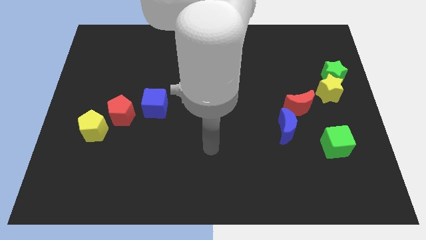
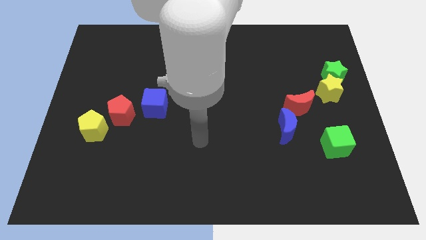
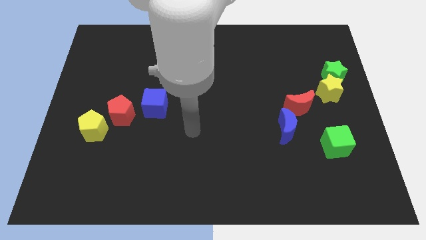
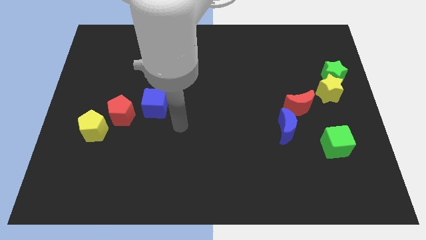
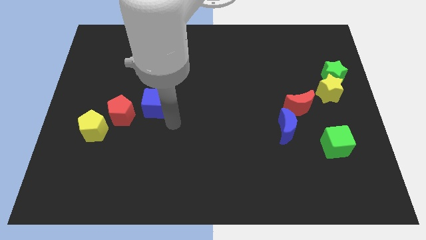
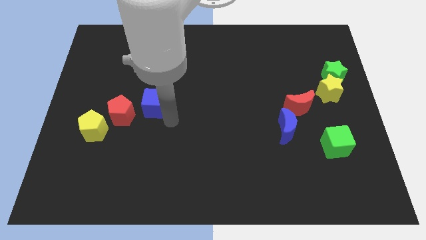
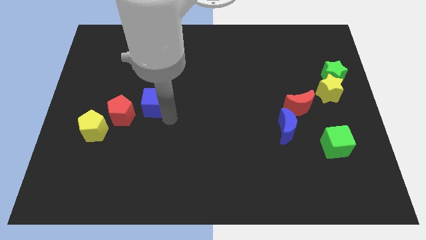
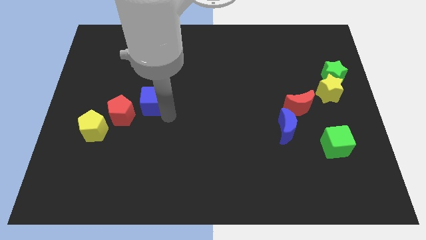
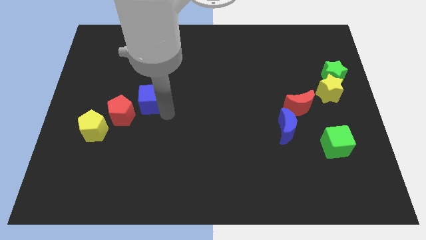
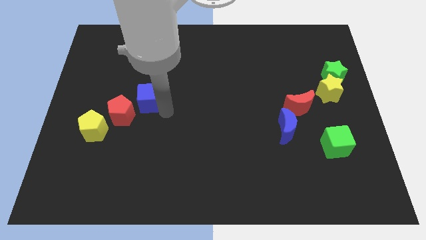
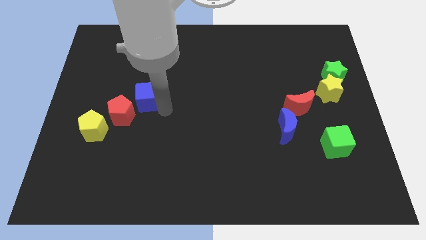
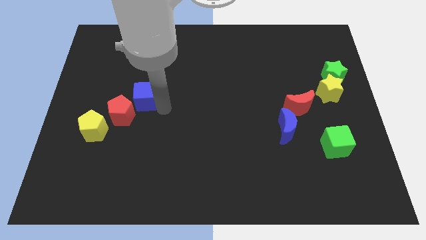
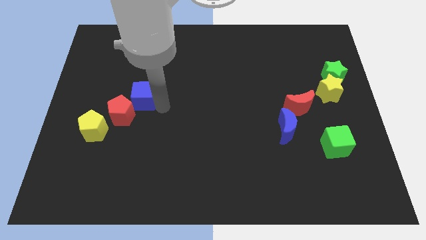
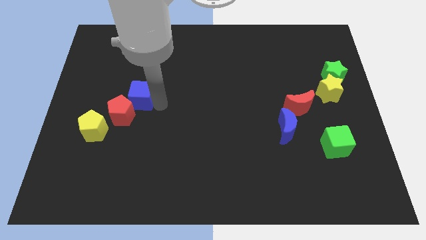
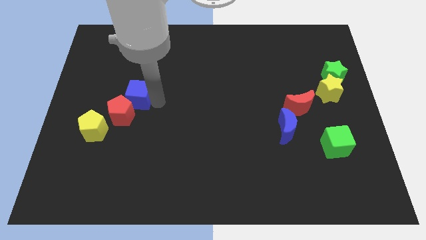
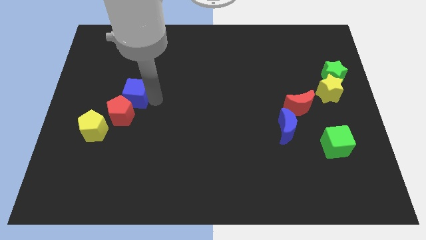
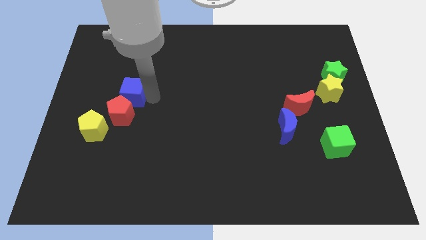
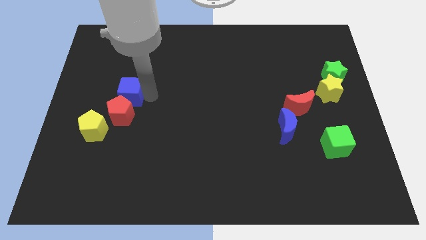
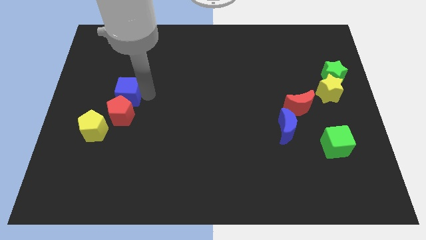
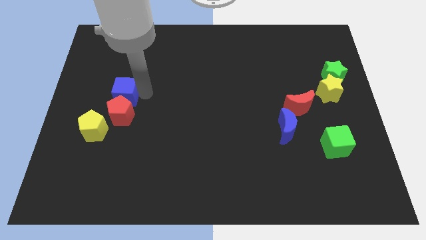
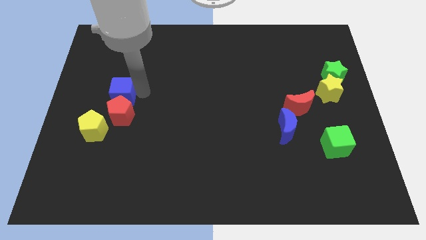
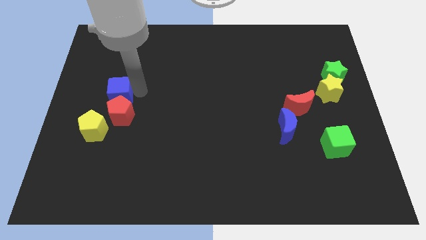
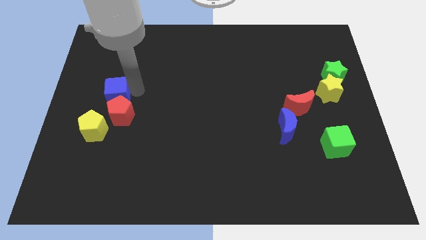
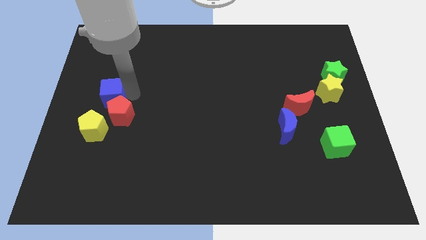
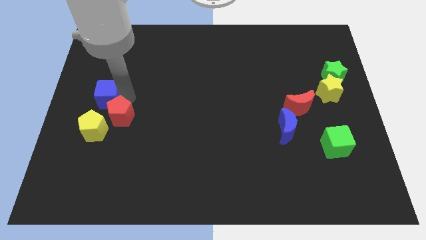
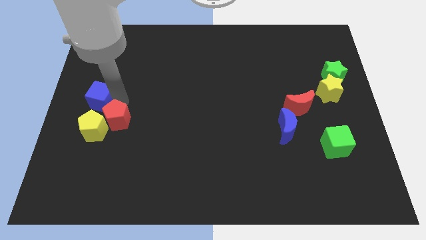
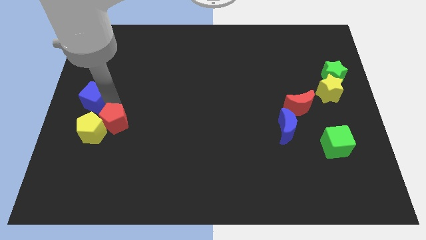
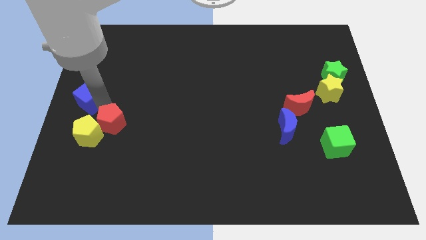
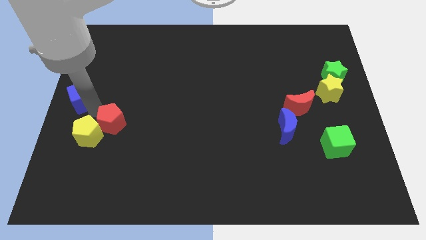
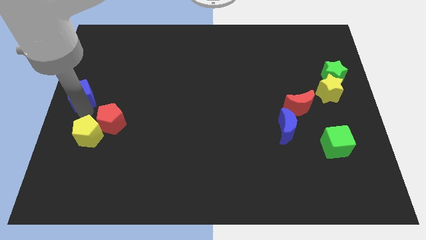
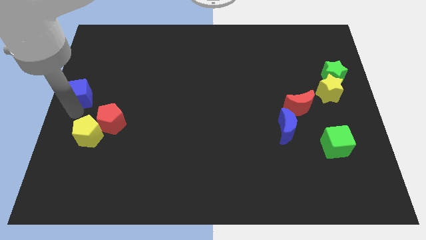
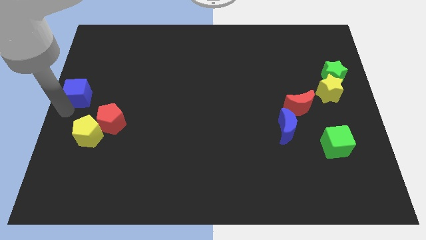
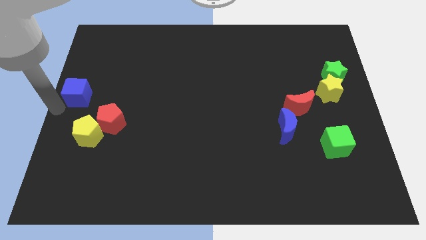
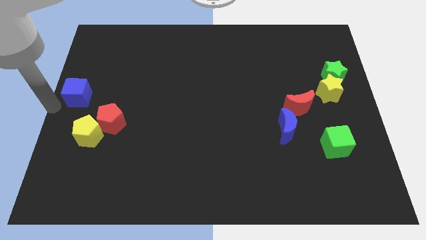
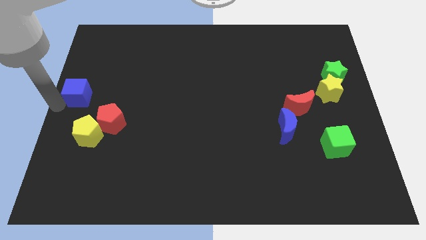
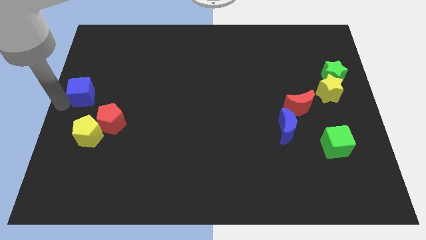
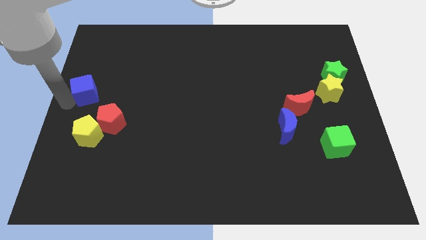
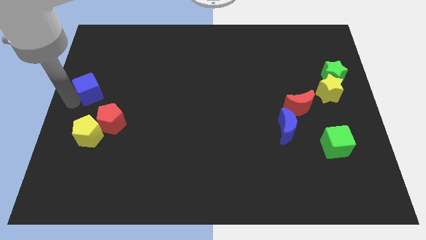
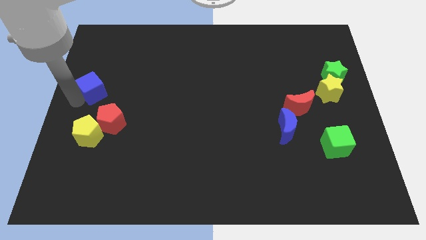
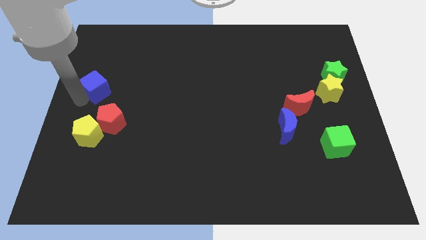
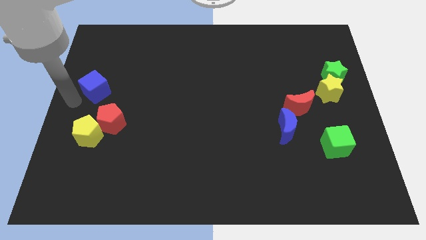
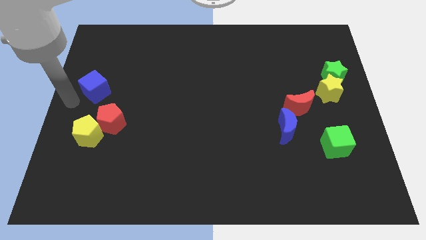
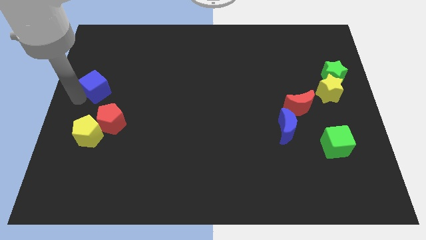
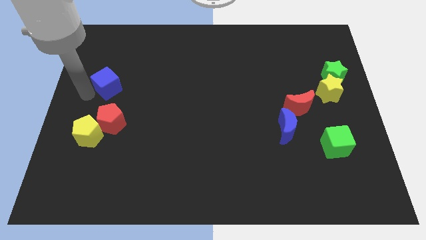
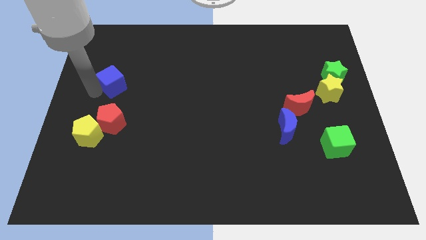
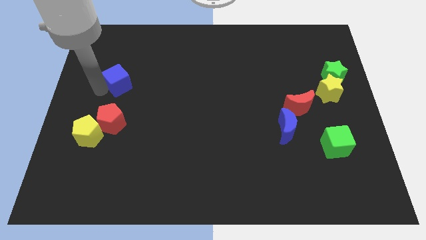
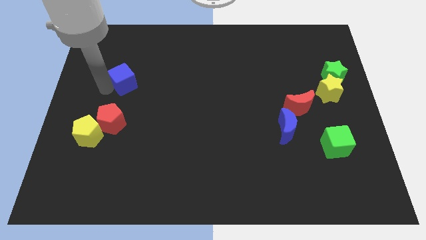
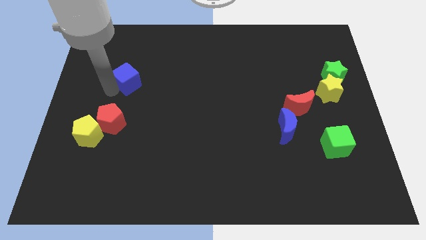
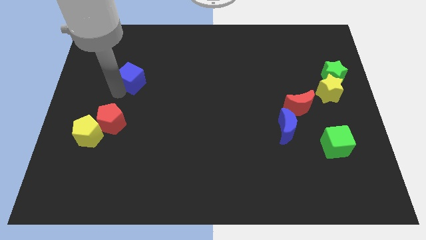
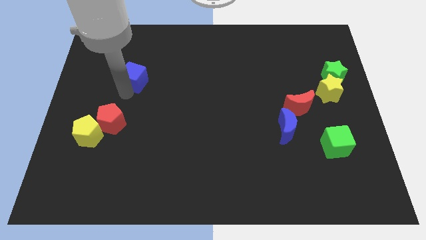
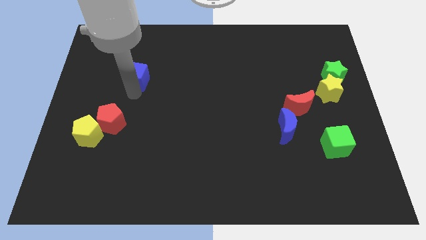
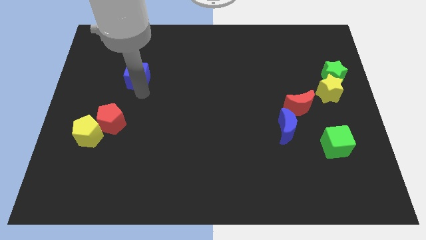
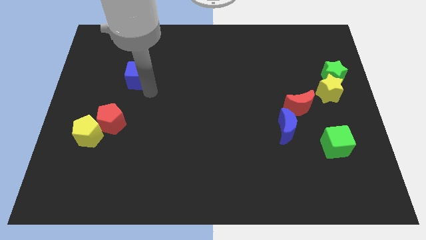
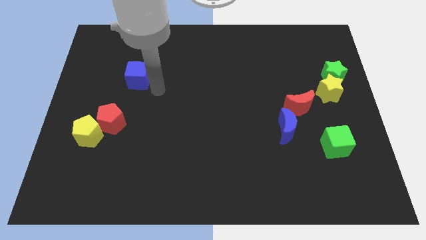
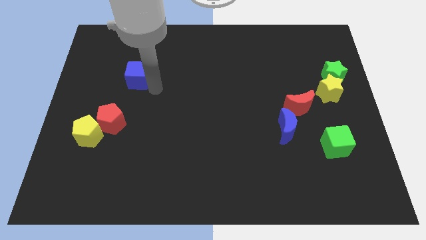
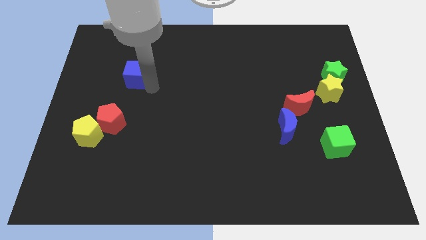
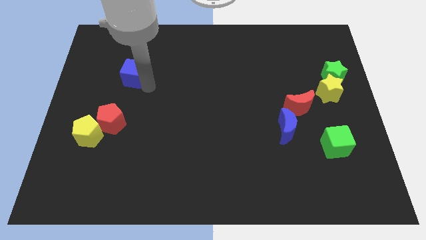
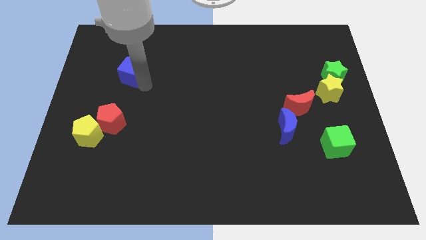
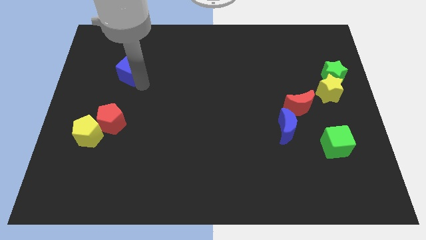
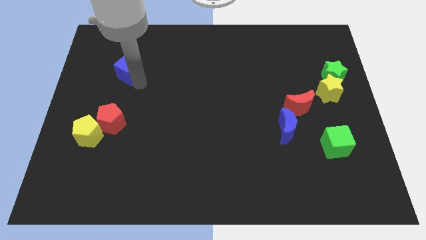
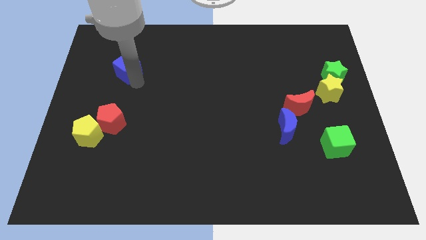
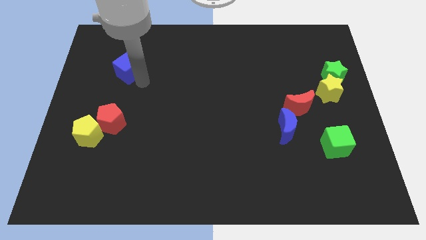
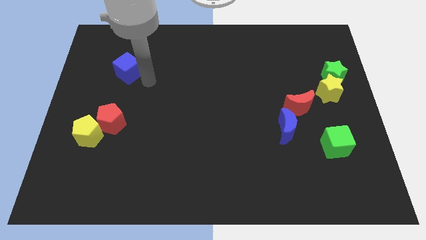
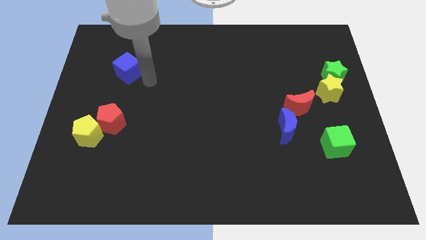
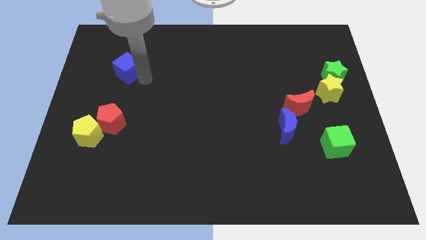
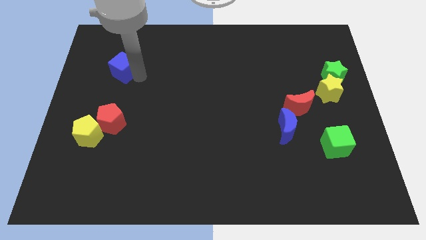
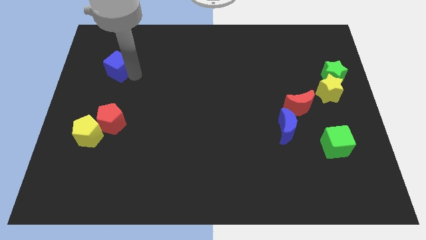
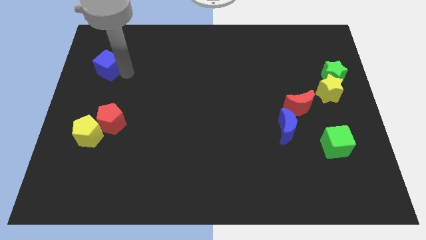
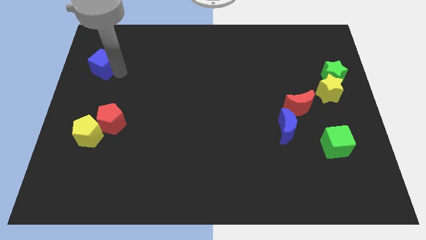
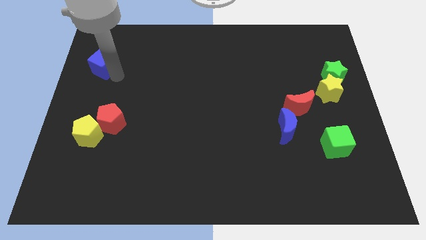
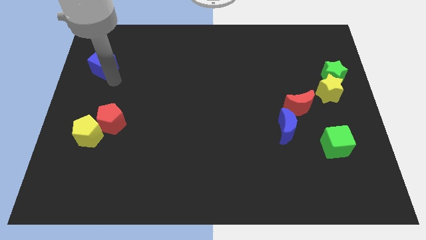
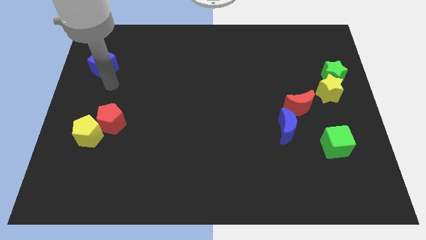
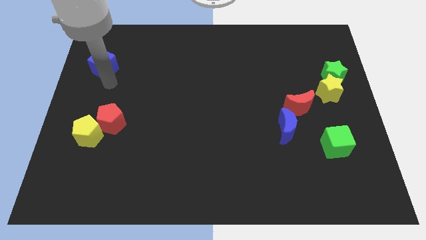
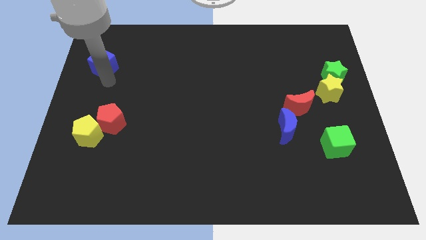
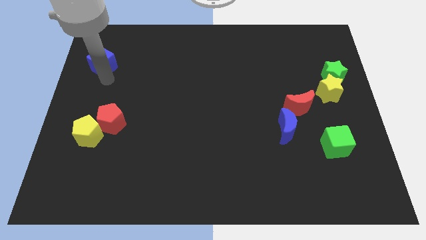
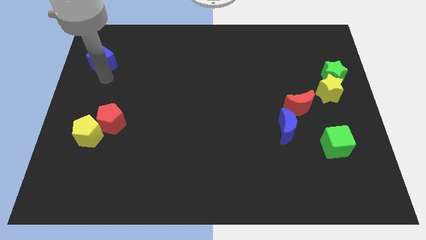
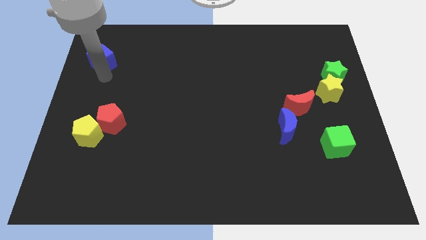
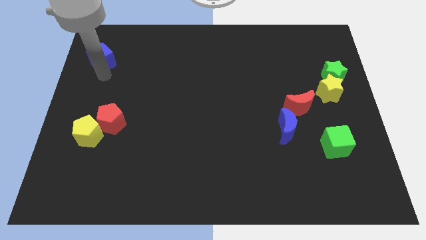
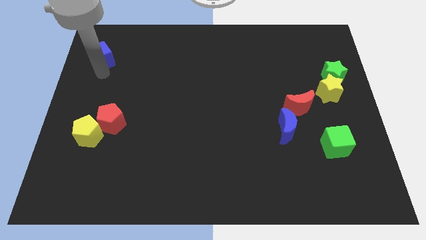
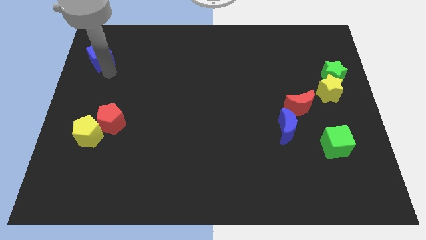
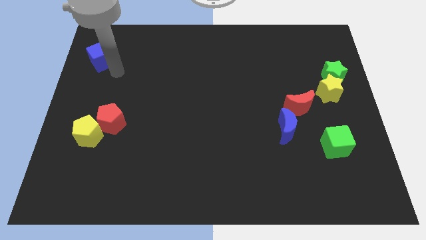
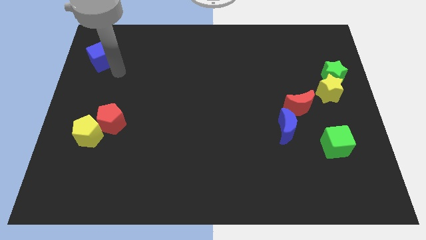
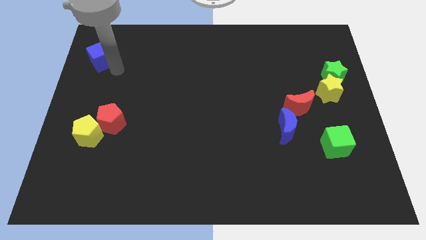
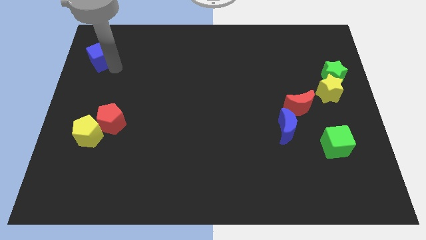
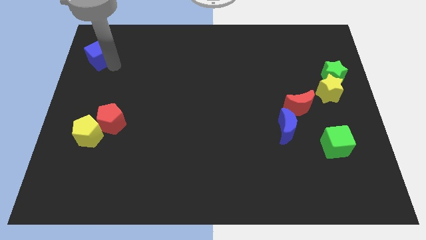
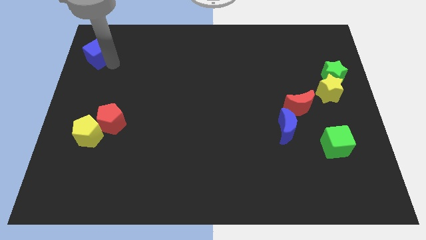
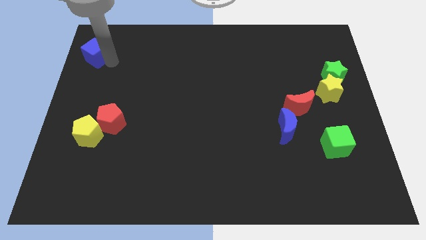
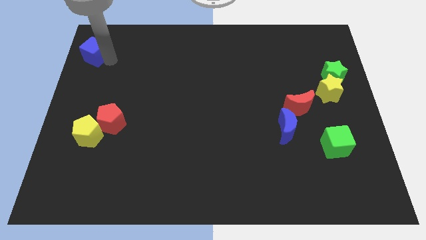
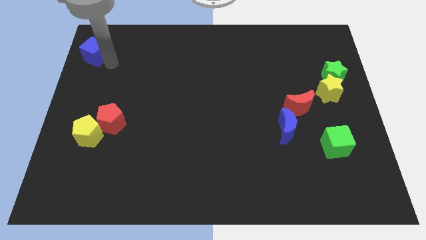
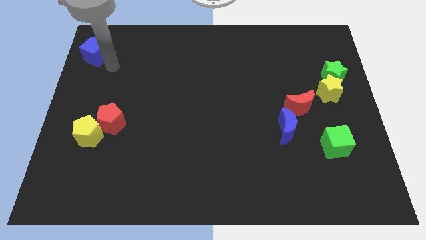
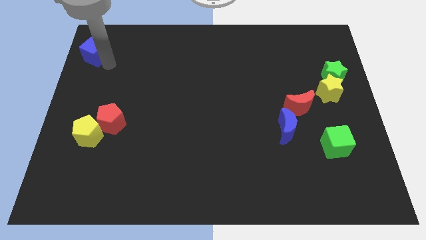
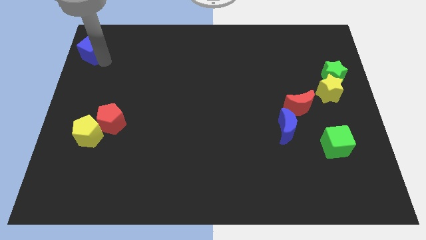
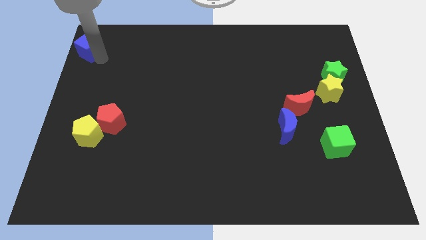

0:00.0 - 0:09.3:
slide the blue cube to the upper left corner
